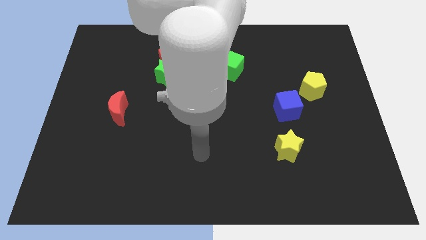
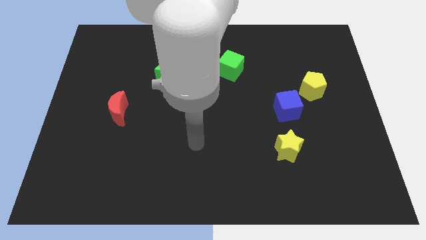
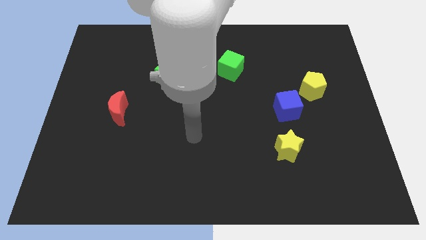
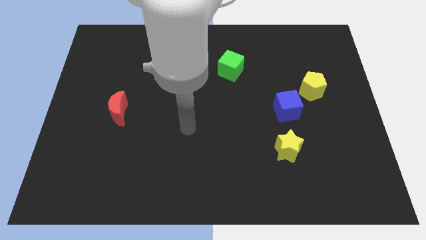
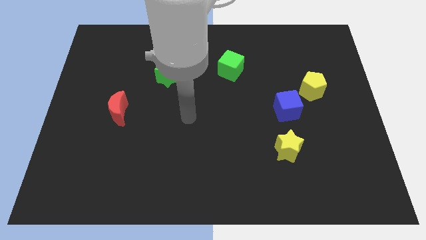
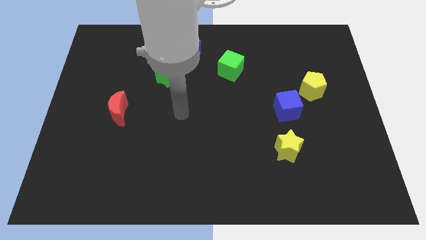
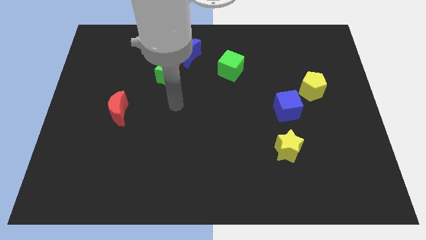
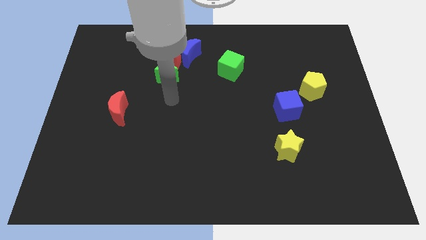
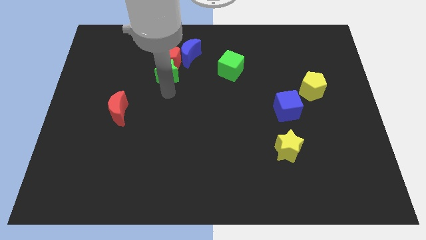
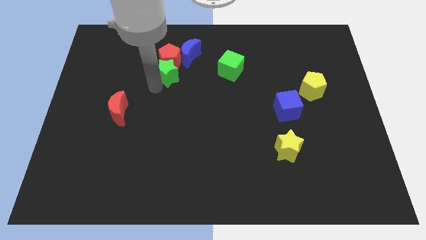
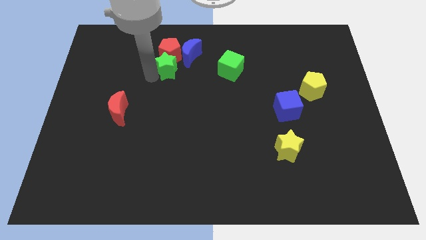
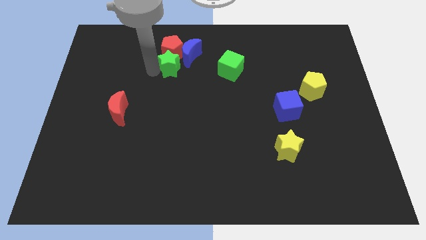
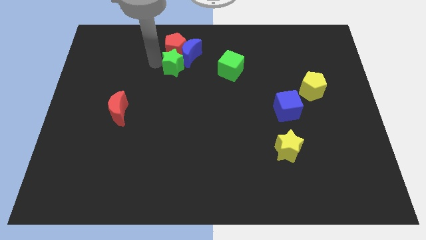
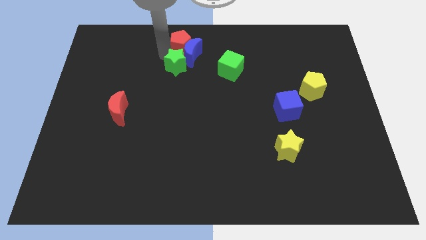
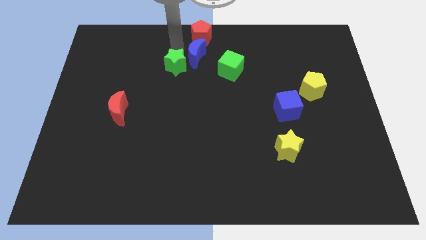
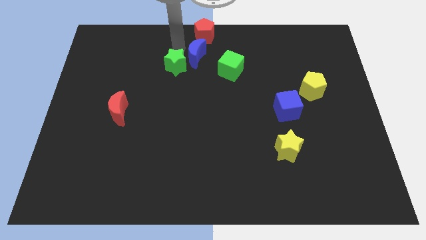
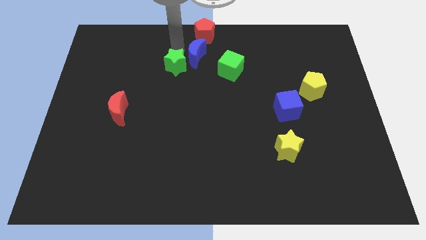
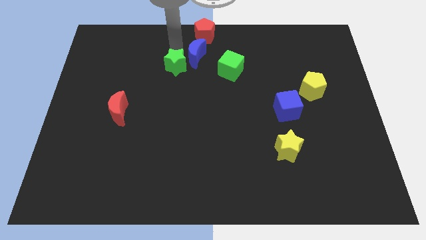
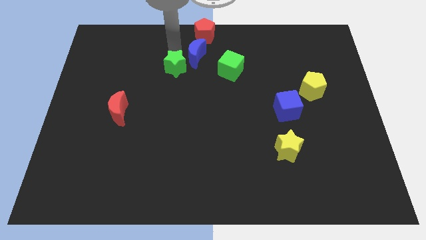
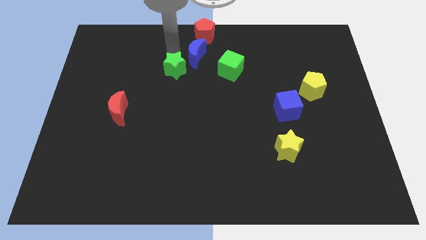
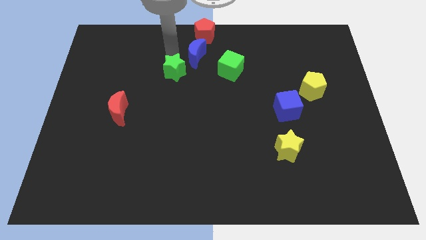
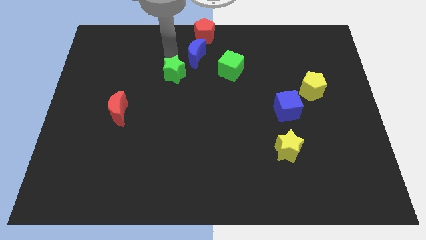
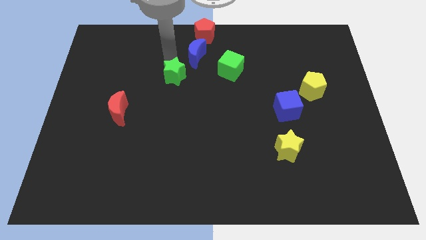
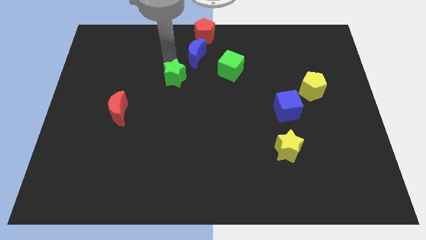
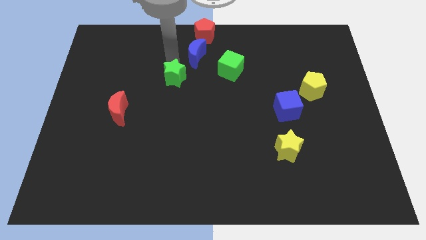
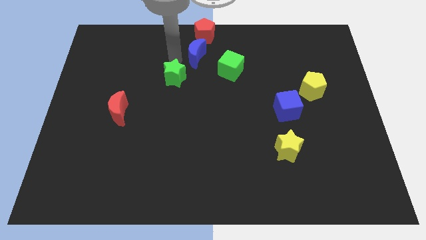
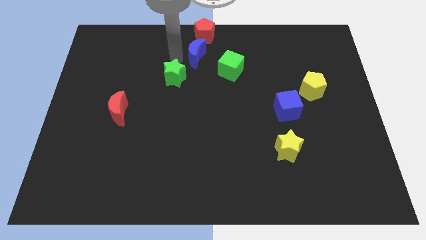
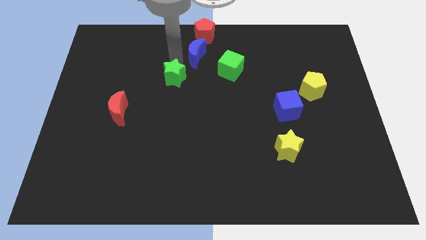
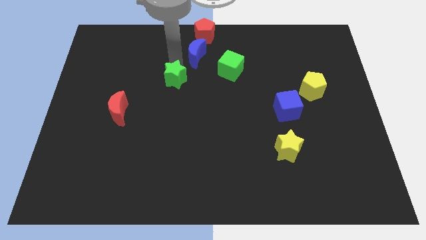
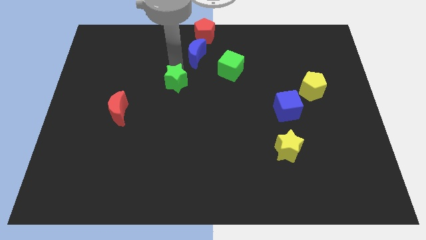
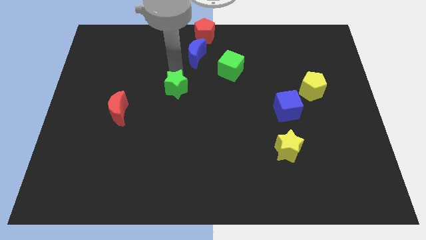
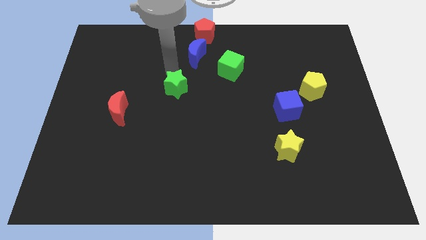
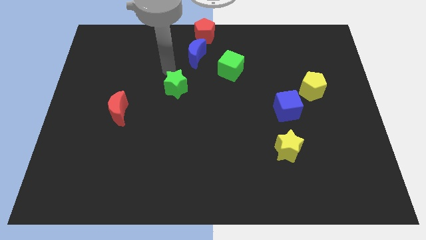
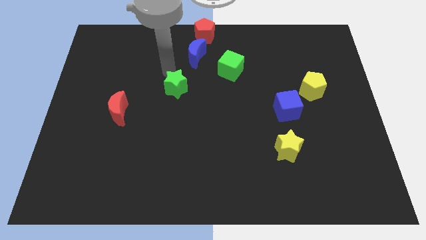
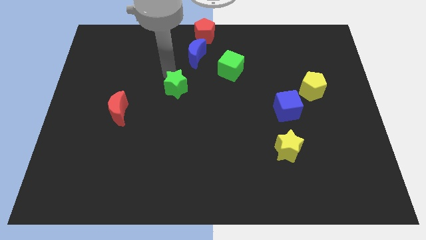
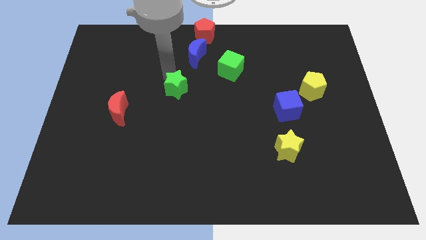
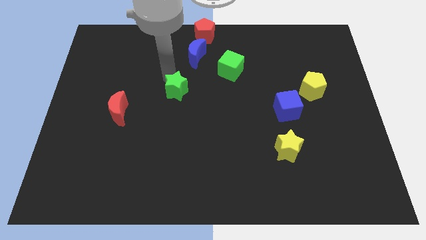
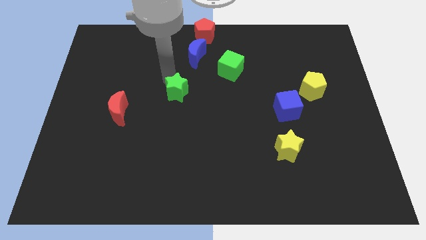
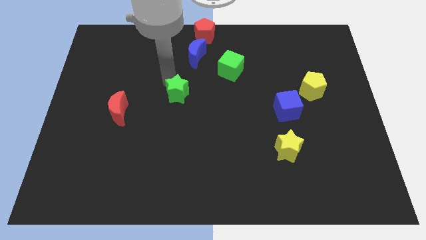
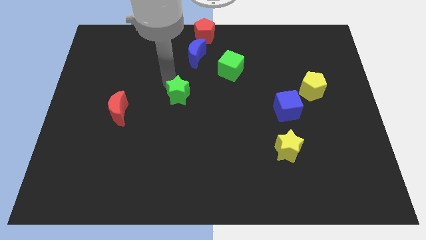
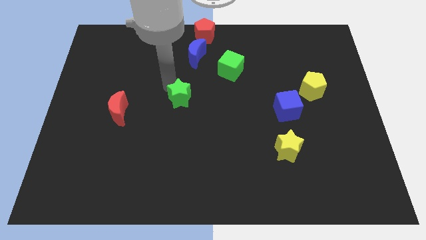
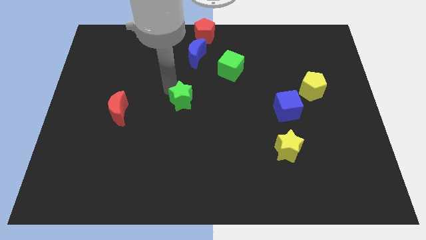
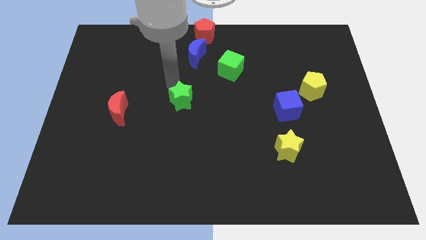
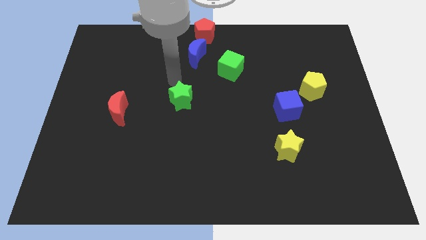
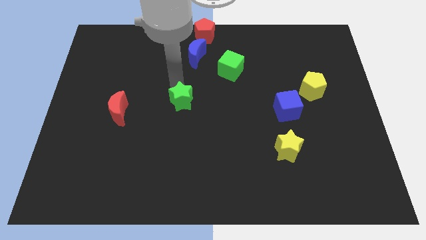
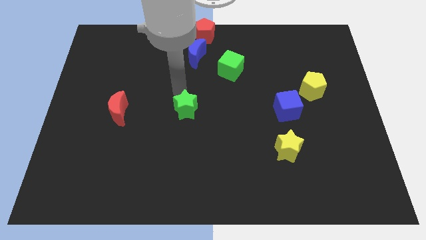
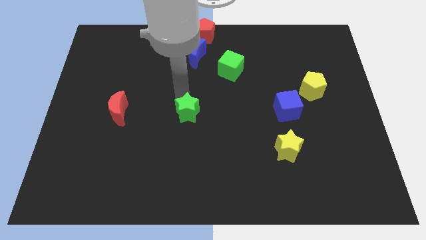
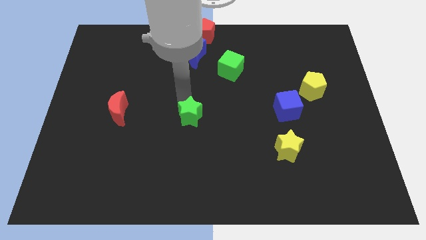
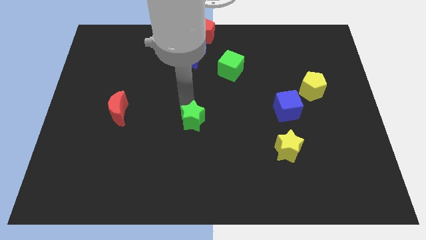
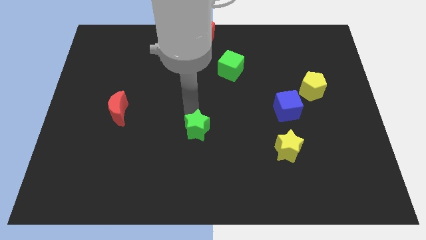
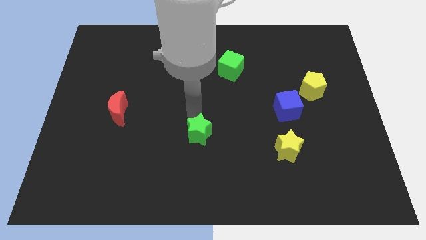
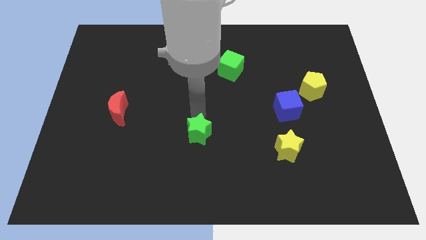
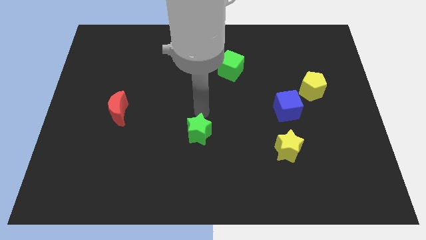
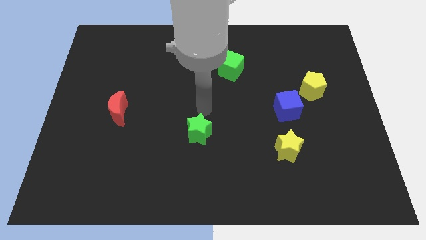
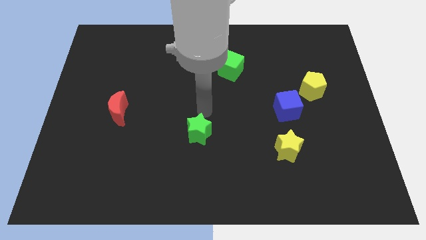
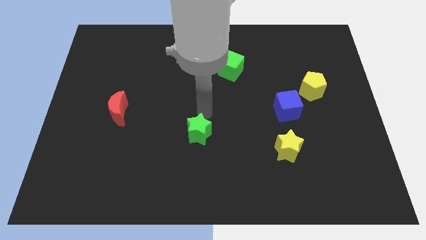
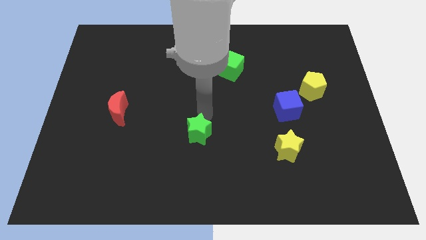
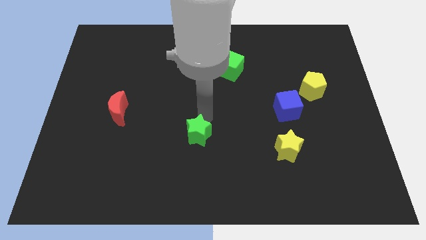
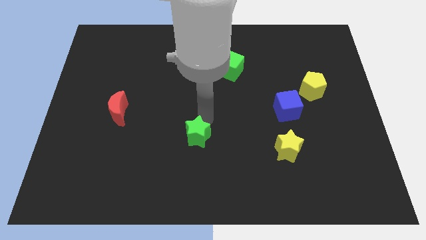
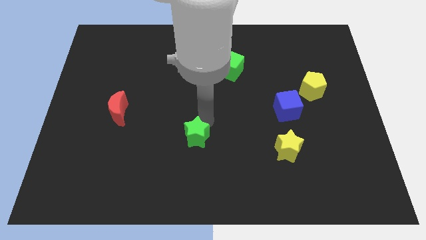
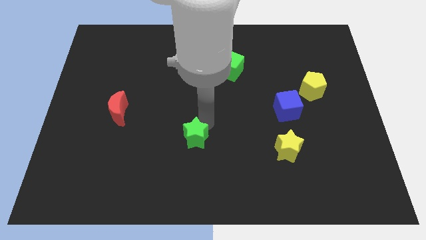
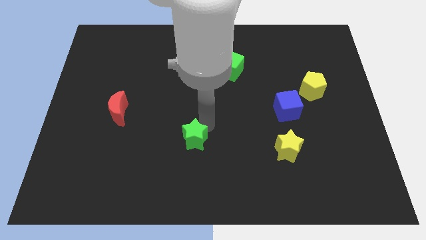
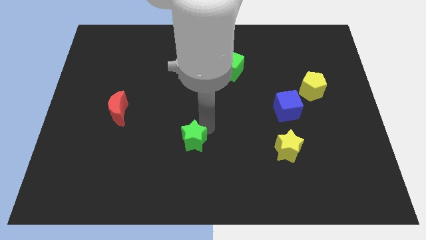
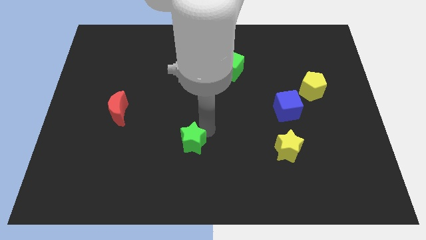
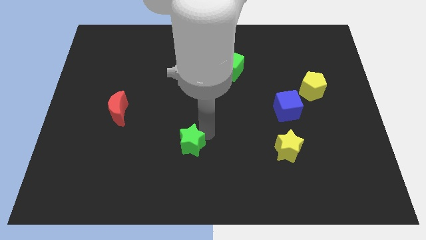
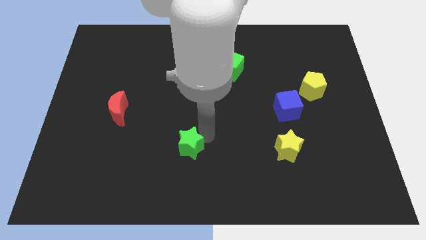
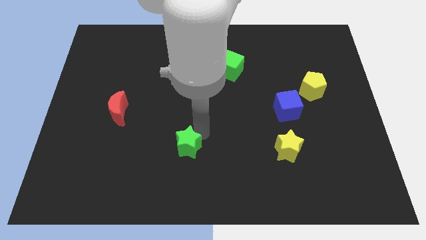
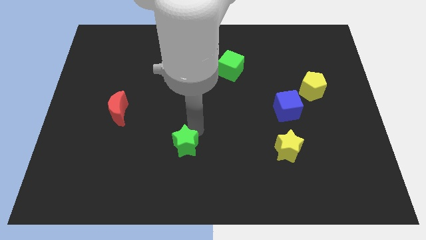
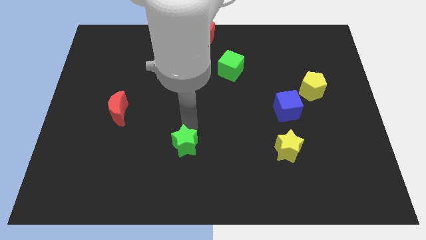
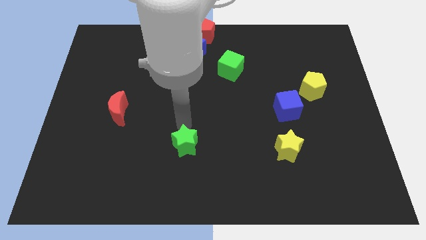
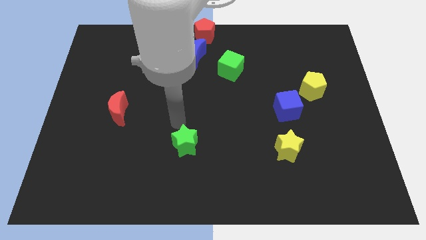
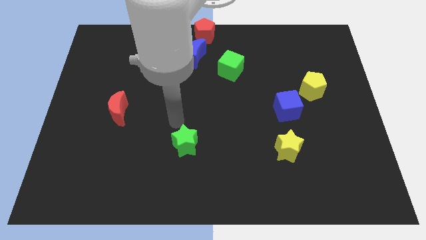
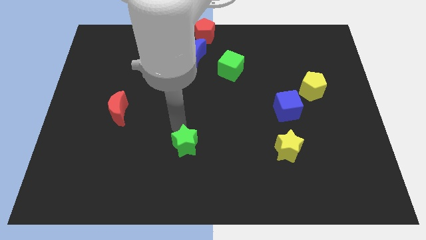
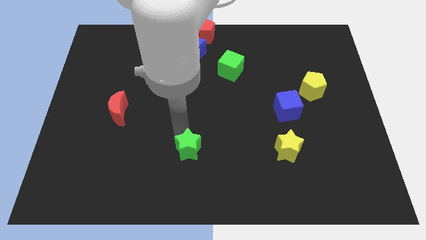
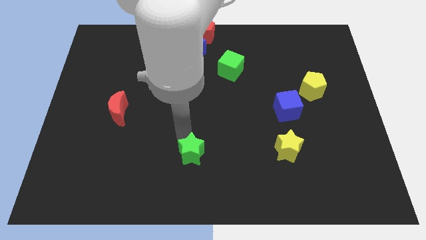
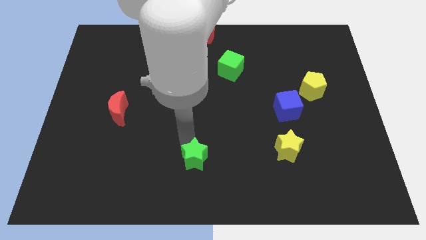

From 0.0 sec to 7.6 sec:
put the green star to the bottom
